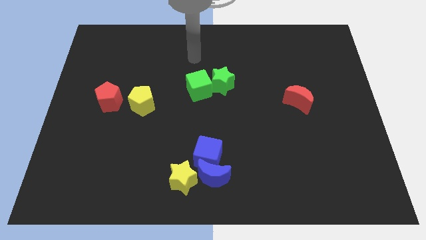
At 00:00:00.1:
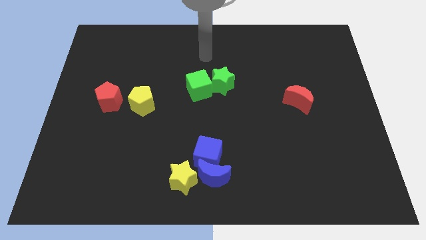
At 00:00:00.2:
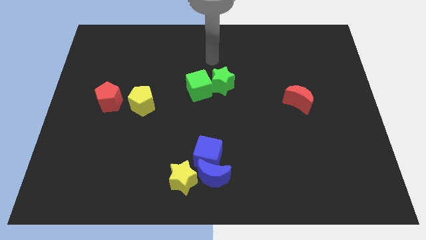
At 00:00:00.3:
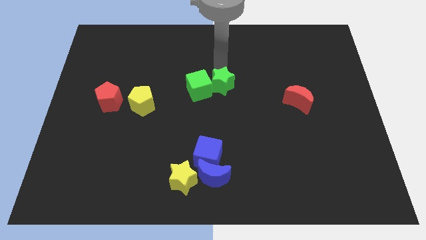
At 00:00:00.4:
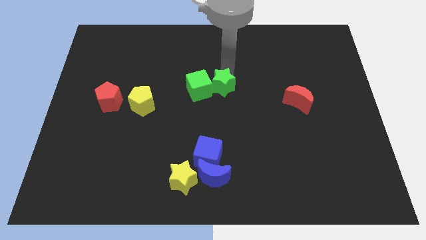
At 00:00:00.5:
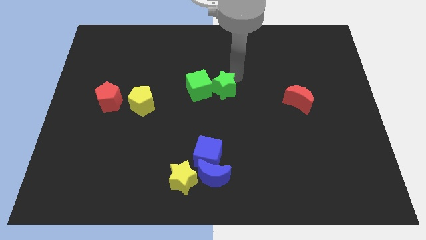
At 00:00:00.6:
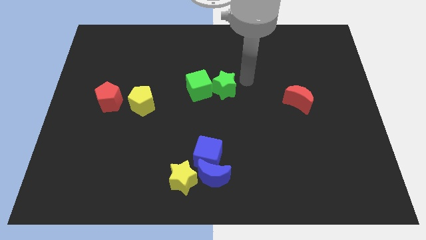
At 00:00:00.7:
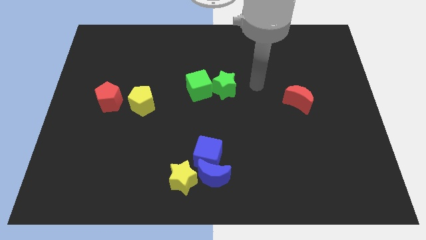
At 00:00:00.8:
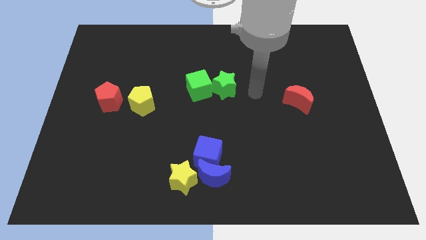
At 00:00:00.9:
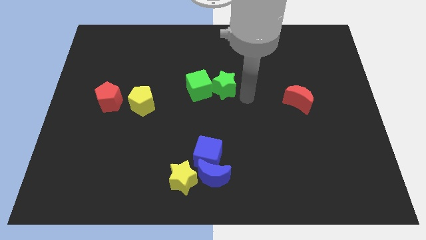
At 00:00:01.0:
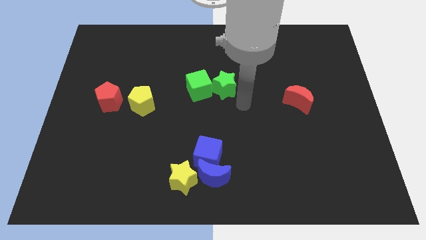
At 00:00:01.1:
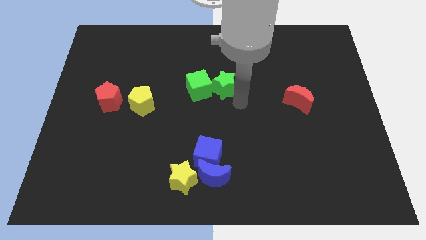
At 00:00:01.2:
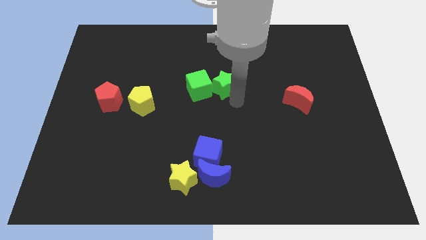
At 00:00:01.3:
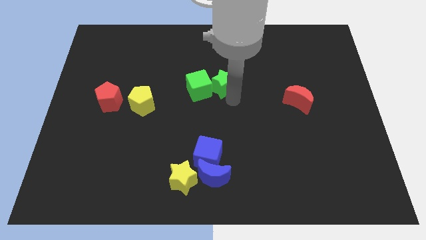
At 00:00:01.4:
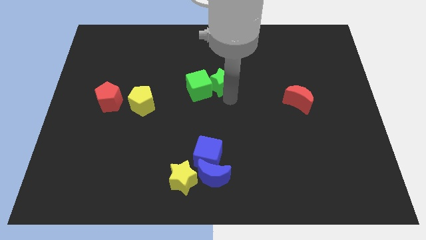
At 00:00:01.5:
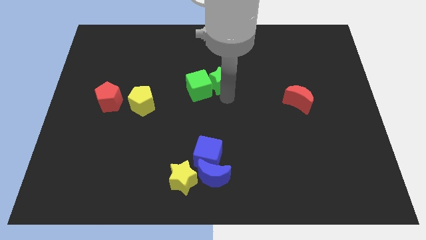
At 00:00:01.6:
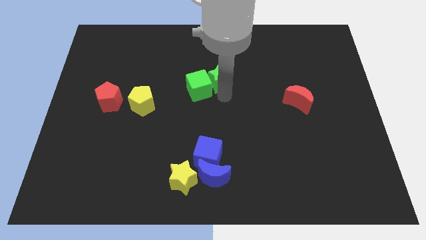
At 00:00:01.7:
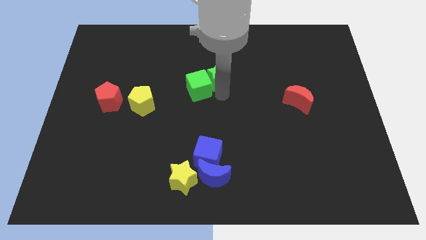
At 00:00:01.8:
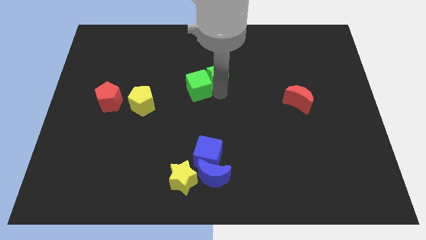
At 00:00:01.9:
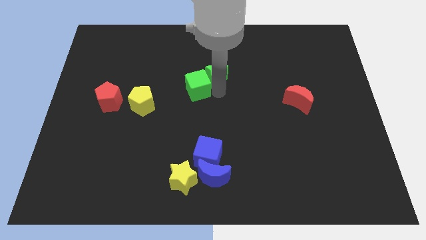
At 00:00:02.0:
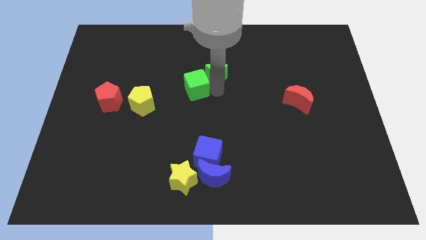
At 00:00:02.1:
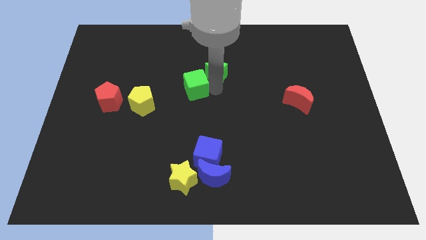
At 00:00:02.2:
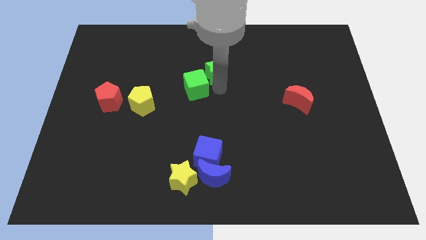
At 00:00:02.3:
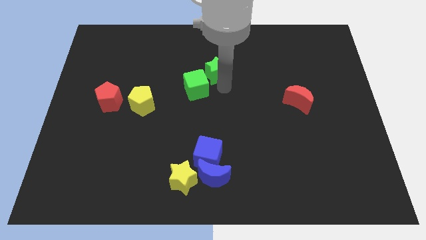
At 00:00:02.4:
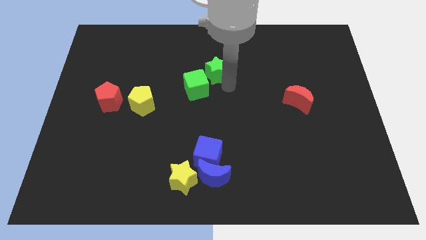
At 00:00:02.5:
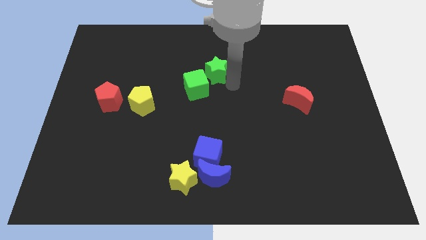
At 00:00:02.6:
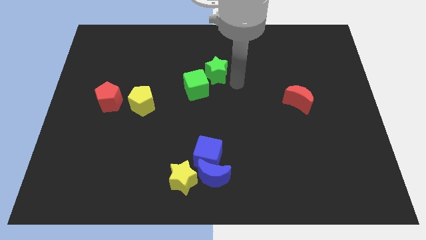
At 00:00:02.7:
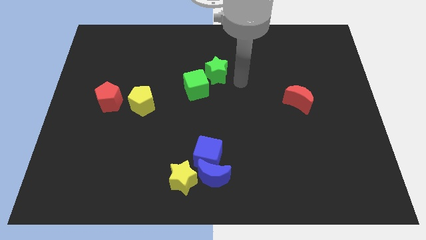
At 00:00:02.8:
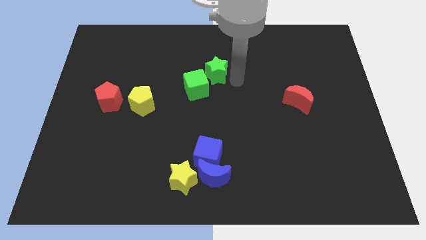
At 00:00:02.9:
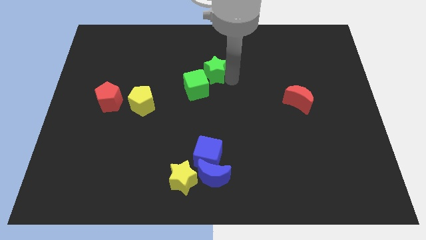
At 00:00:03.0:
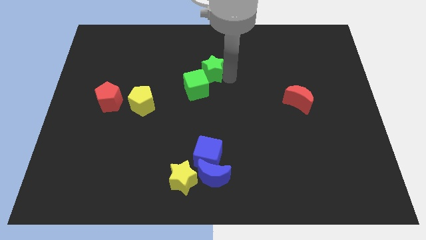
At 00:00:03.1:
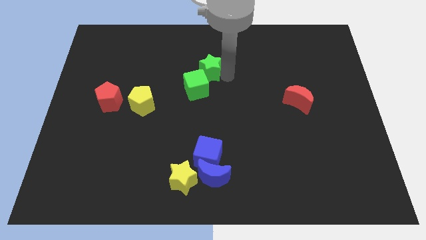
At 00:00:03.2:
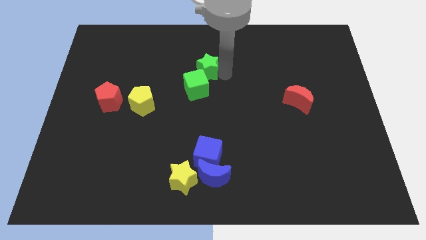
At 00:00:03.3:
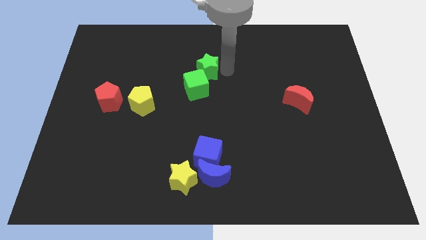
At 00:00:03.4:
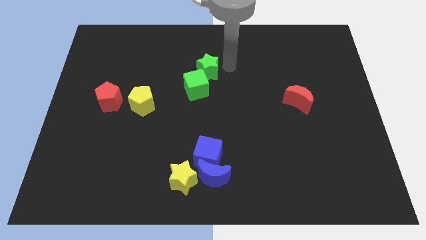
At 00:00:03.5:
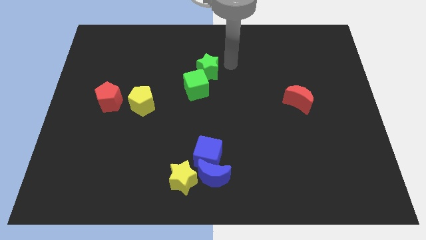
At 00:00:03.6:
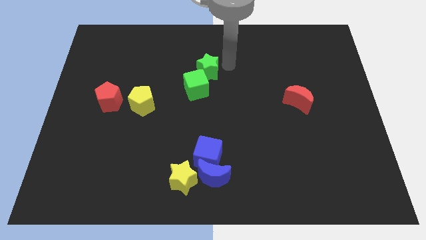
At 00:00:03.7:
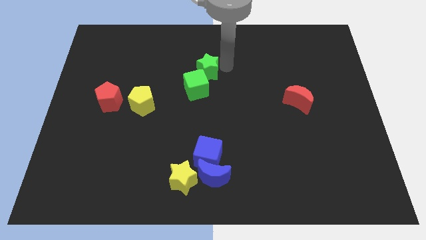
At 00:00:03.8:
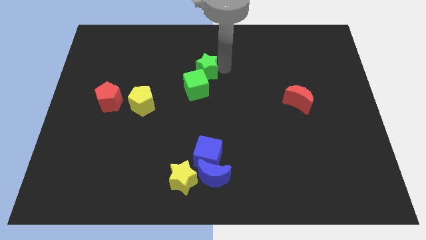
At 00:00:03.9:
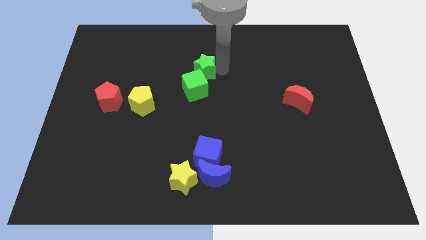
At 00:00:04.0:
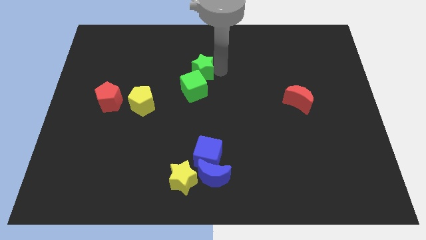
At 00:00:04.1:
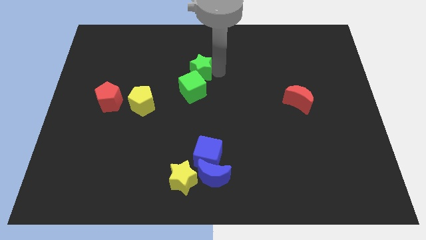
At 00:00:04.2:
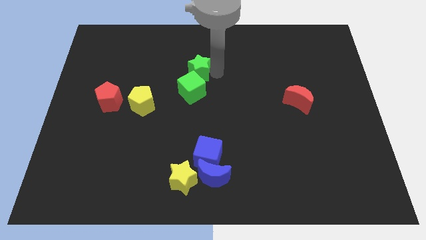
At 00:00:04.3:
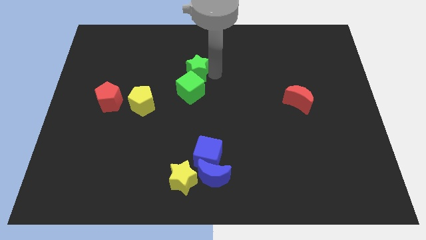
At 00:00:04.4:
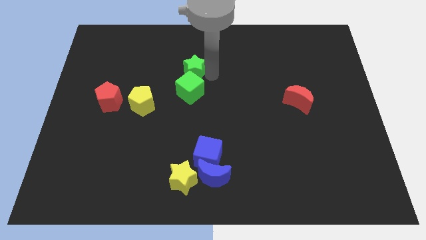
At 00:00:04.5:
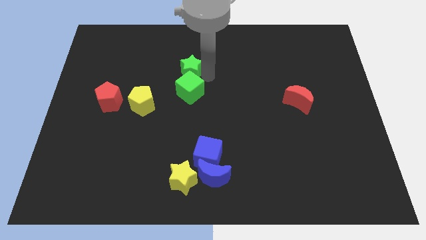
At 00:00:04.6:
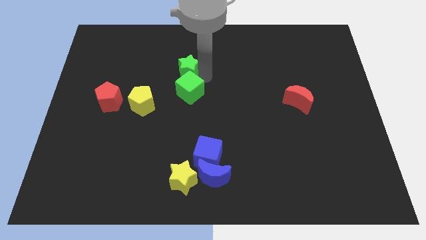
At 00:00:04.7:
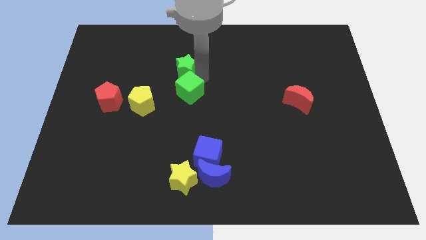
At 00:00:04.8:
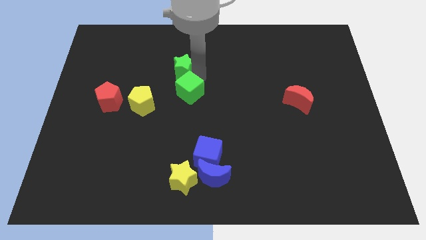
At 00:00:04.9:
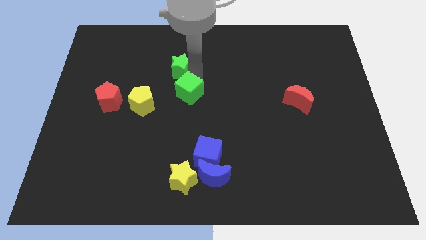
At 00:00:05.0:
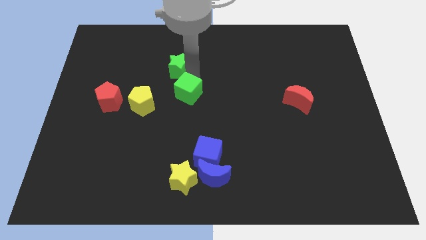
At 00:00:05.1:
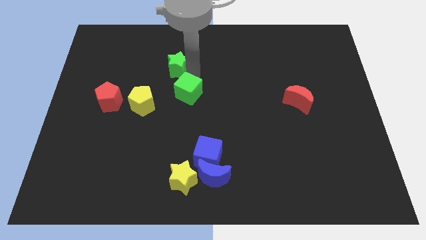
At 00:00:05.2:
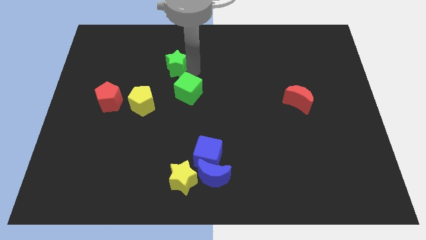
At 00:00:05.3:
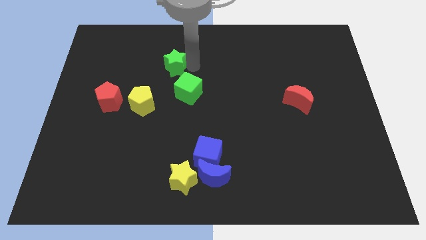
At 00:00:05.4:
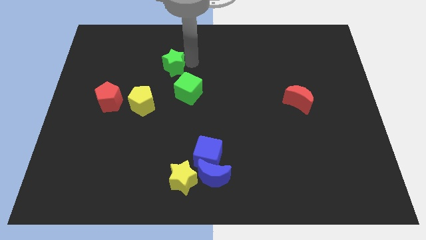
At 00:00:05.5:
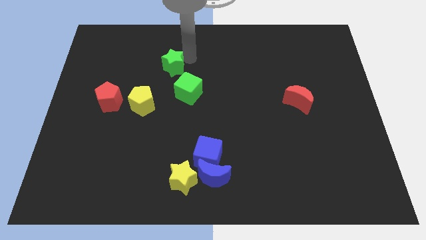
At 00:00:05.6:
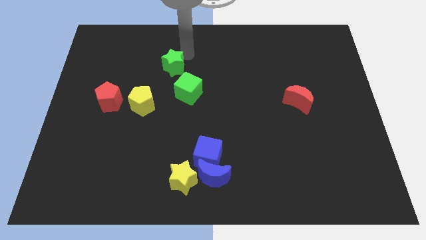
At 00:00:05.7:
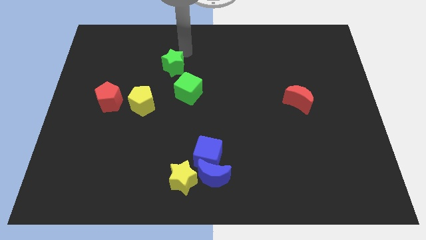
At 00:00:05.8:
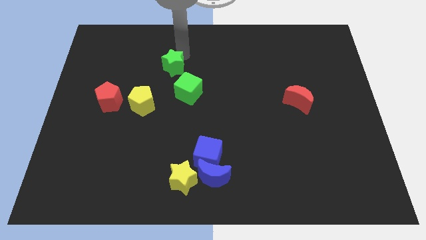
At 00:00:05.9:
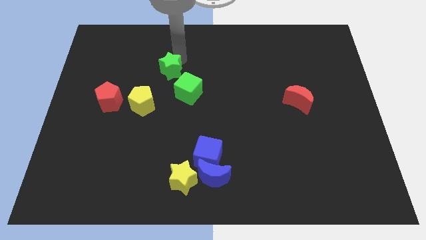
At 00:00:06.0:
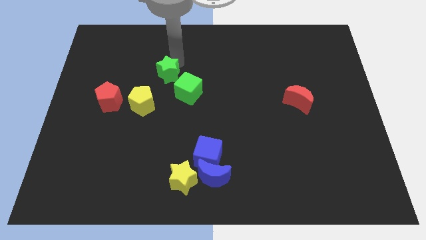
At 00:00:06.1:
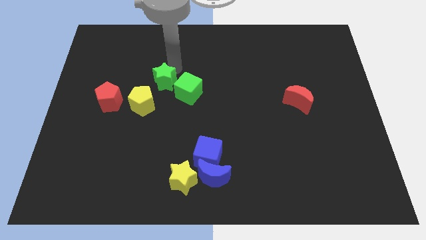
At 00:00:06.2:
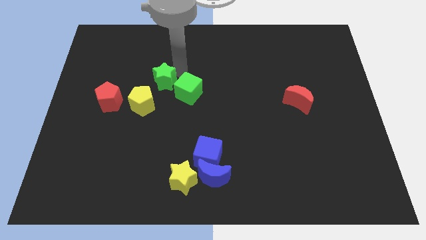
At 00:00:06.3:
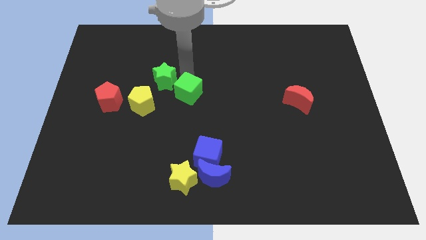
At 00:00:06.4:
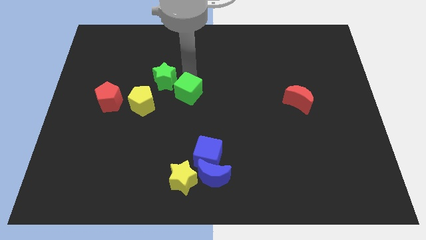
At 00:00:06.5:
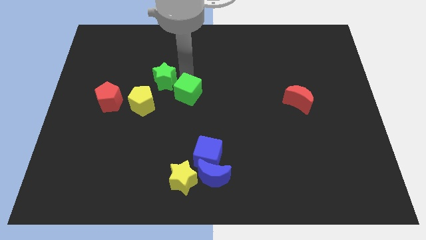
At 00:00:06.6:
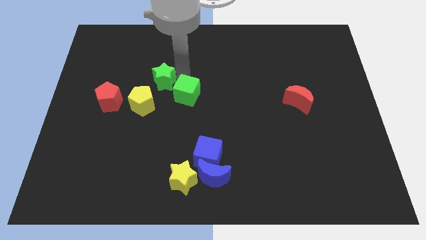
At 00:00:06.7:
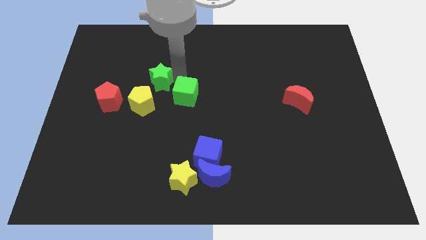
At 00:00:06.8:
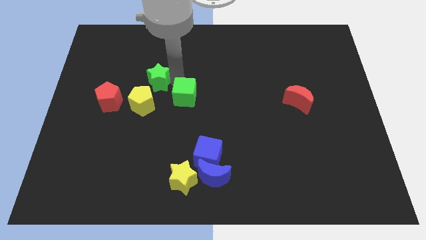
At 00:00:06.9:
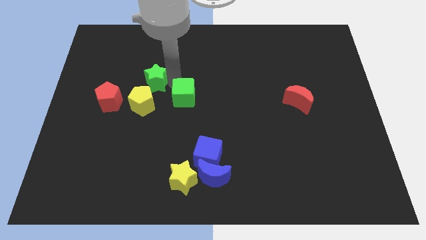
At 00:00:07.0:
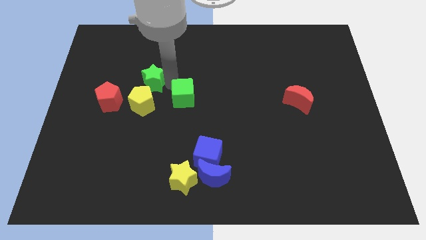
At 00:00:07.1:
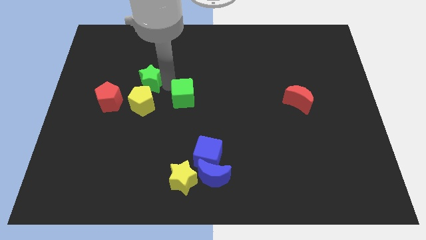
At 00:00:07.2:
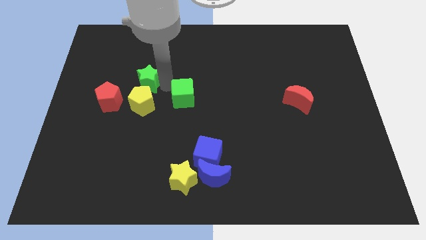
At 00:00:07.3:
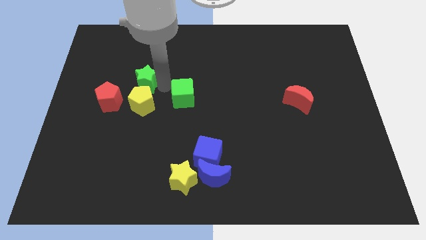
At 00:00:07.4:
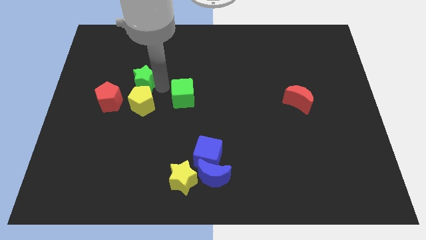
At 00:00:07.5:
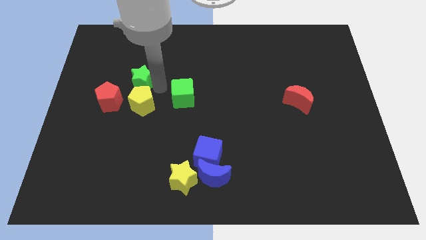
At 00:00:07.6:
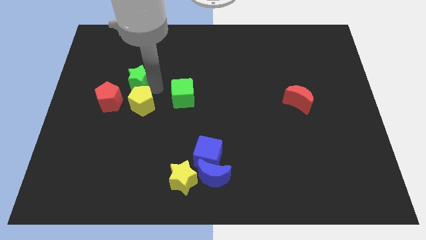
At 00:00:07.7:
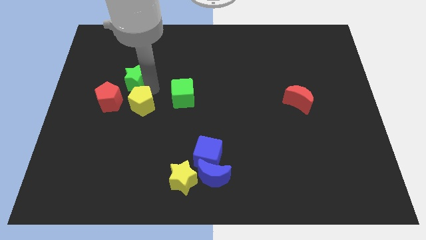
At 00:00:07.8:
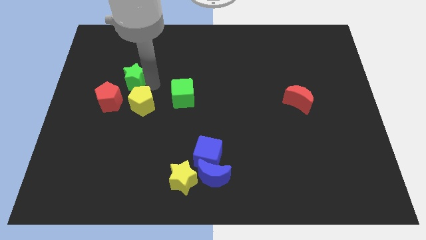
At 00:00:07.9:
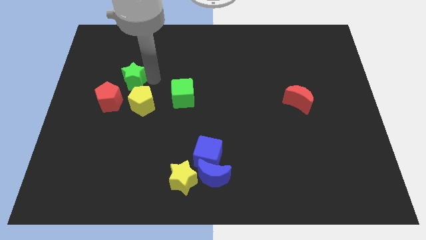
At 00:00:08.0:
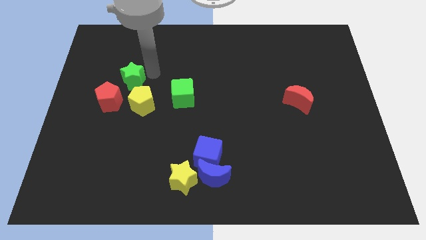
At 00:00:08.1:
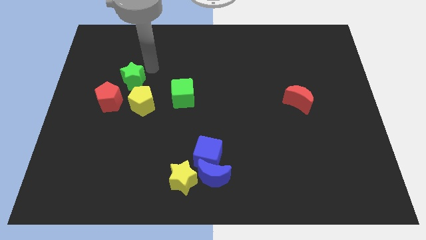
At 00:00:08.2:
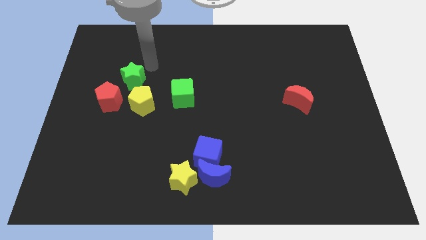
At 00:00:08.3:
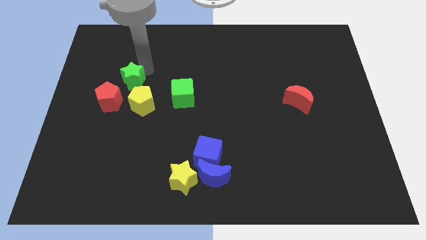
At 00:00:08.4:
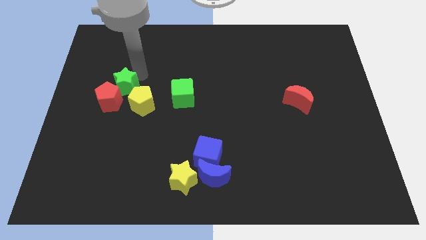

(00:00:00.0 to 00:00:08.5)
put the green star to the red pentagon
